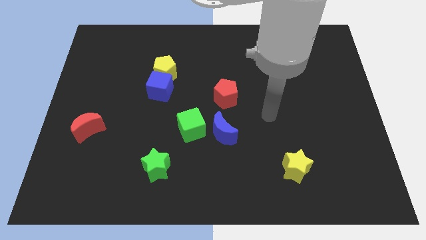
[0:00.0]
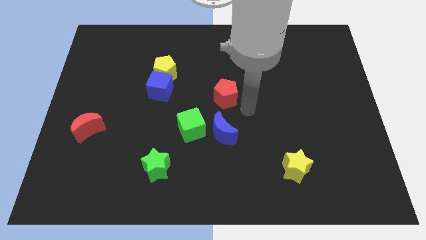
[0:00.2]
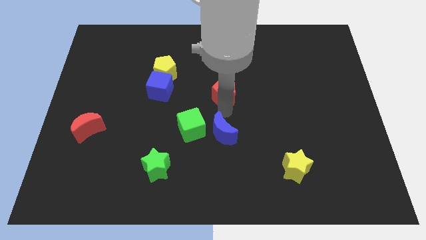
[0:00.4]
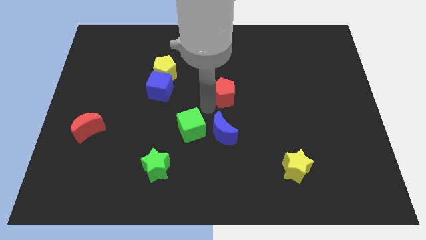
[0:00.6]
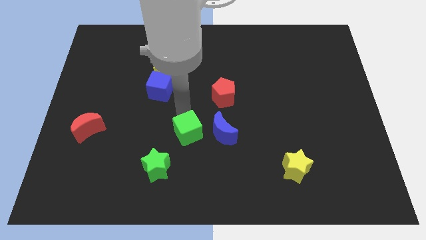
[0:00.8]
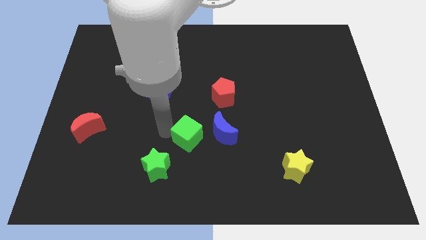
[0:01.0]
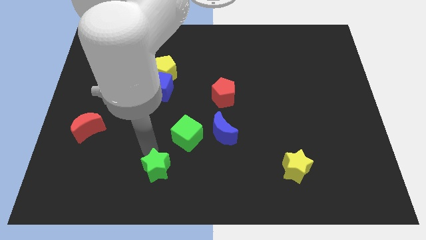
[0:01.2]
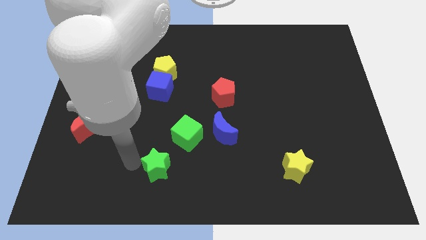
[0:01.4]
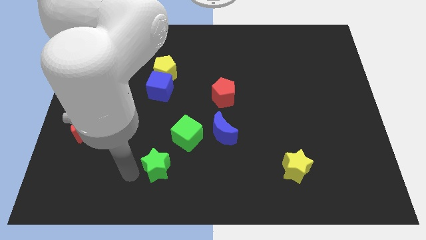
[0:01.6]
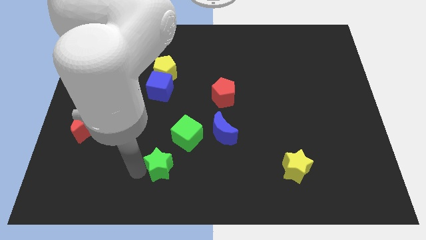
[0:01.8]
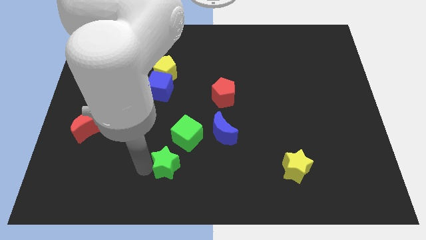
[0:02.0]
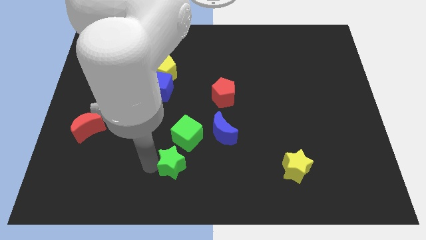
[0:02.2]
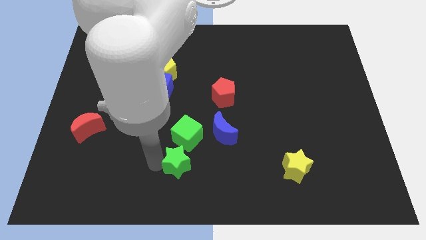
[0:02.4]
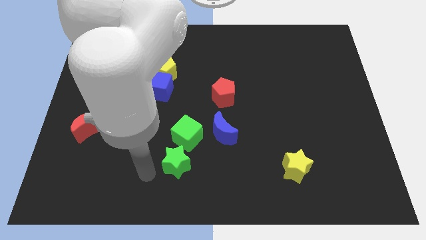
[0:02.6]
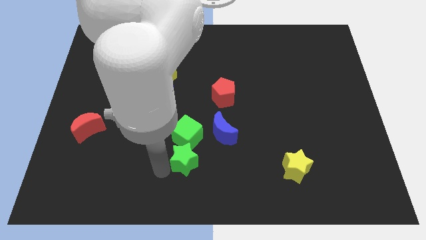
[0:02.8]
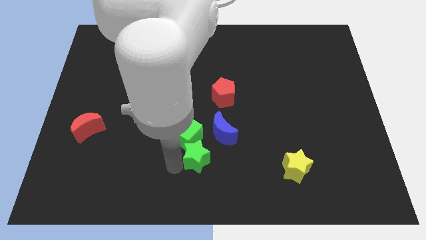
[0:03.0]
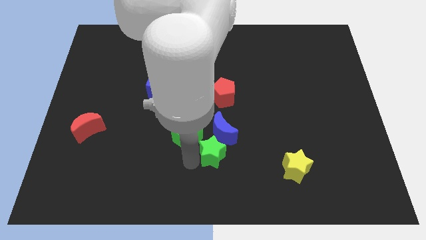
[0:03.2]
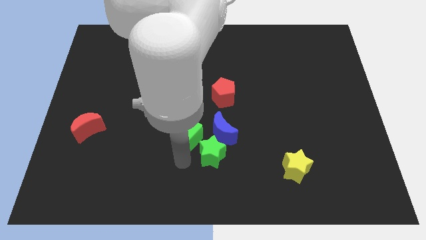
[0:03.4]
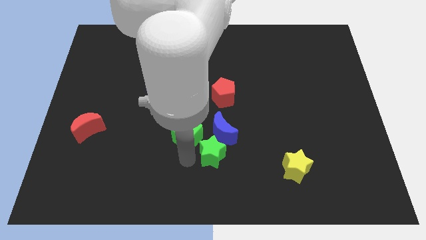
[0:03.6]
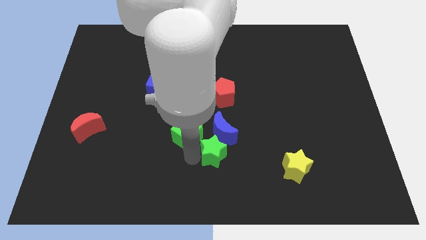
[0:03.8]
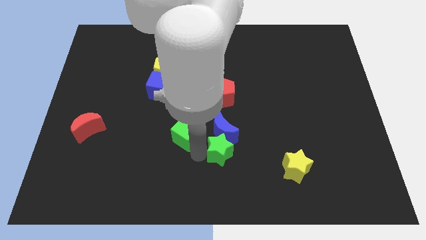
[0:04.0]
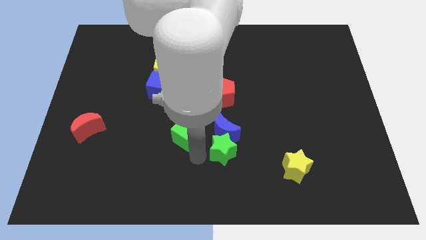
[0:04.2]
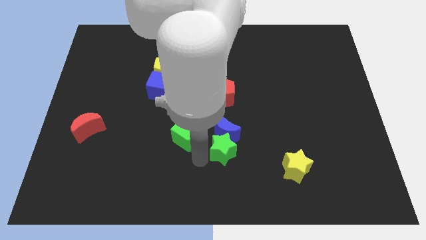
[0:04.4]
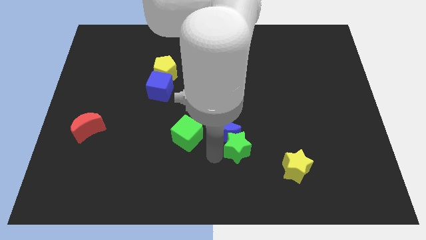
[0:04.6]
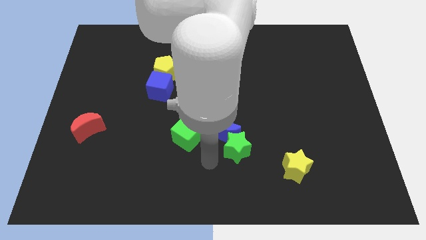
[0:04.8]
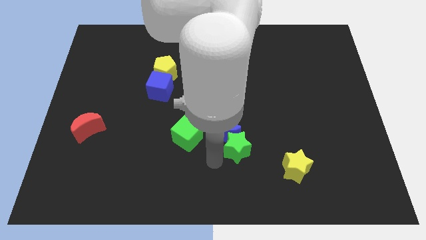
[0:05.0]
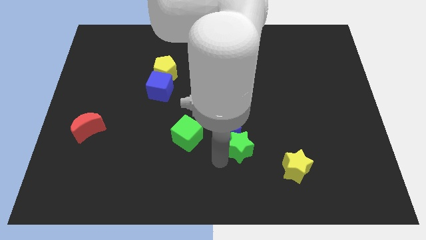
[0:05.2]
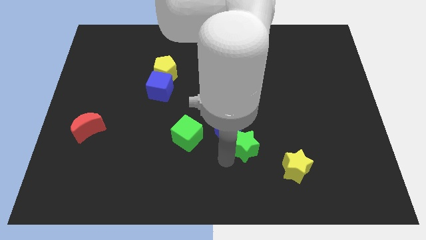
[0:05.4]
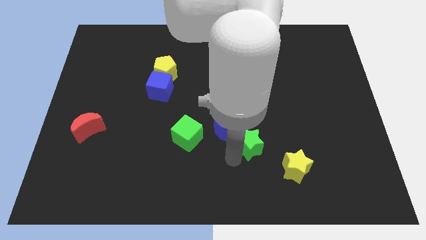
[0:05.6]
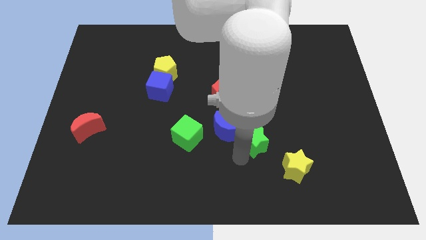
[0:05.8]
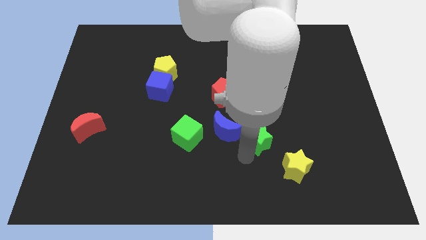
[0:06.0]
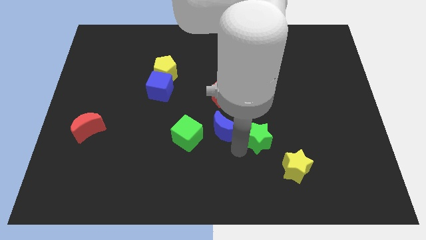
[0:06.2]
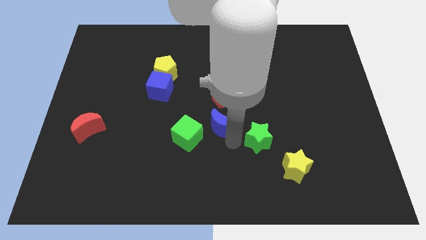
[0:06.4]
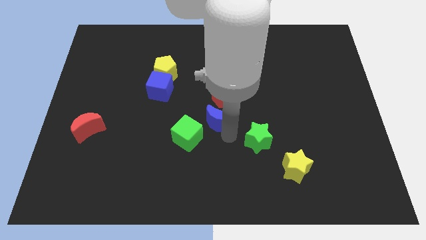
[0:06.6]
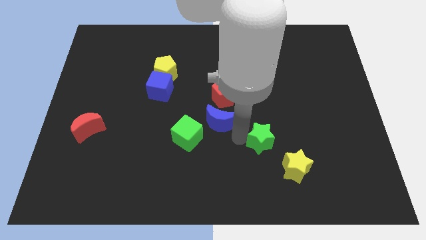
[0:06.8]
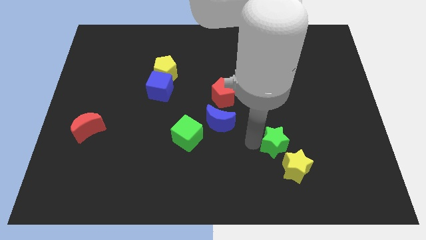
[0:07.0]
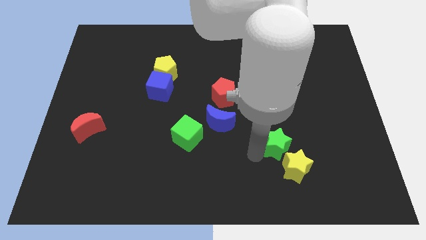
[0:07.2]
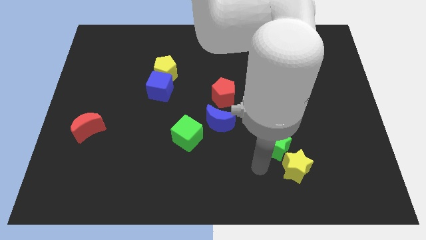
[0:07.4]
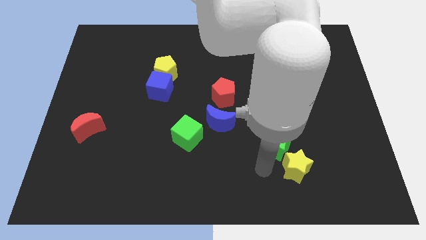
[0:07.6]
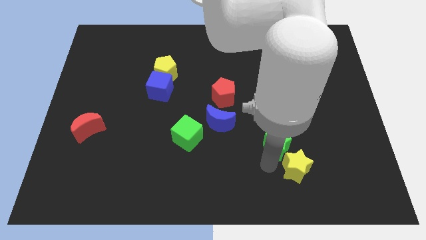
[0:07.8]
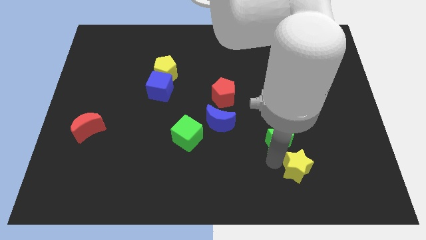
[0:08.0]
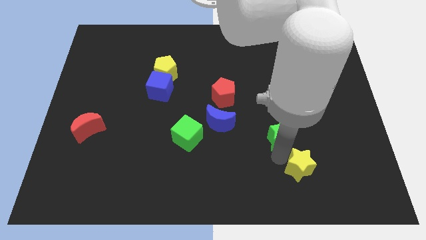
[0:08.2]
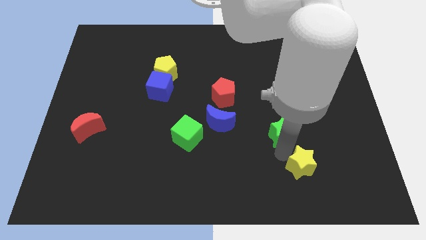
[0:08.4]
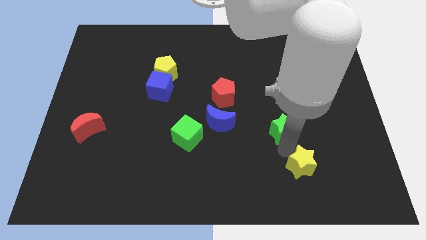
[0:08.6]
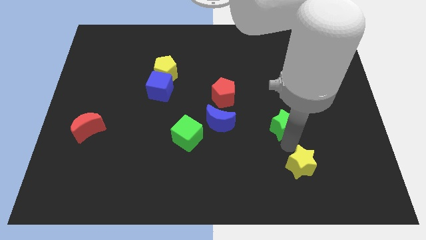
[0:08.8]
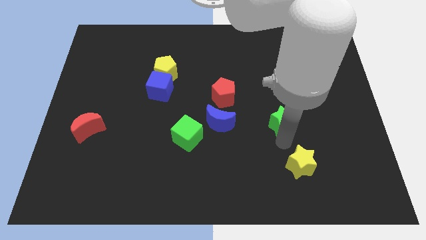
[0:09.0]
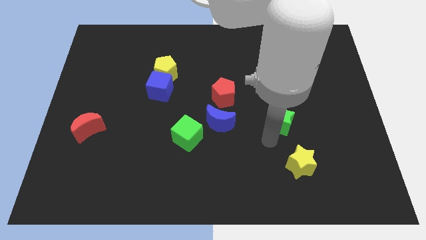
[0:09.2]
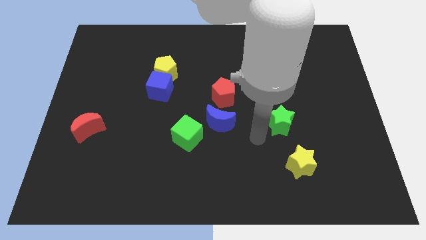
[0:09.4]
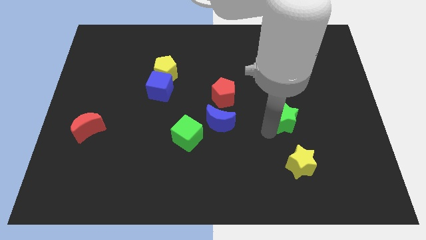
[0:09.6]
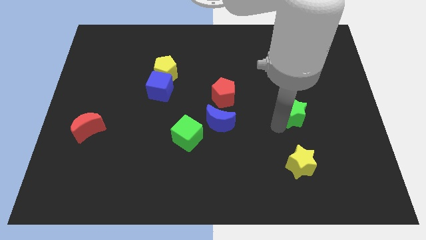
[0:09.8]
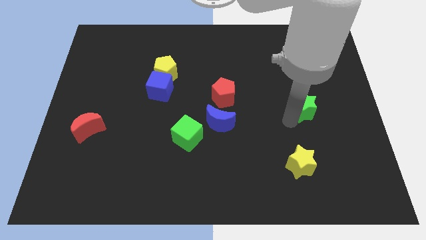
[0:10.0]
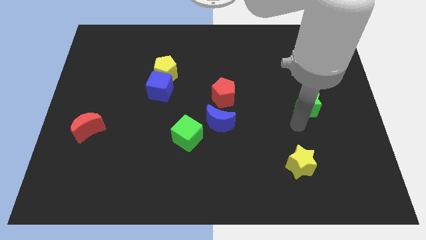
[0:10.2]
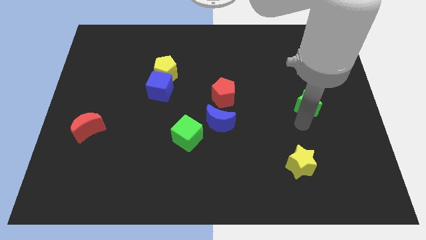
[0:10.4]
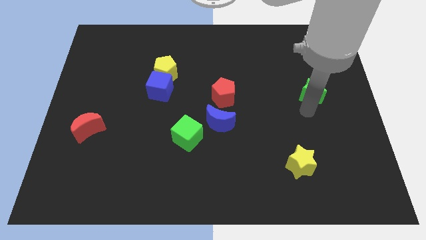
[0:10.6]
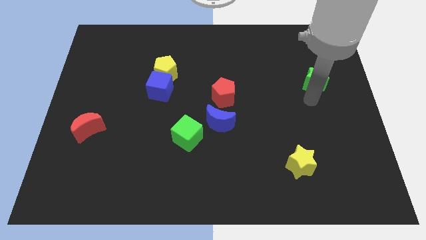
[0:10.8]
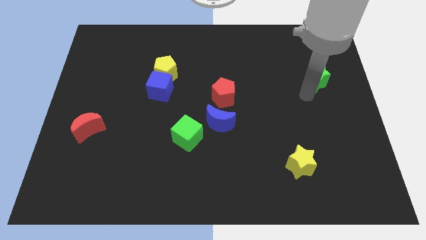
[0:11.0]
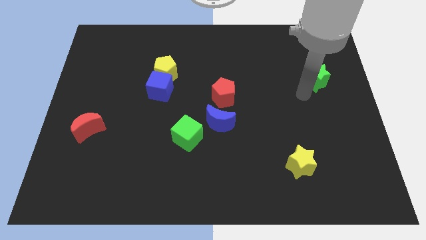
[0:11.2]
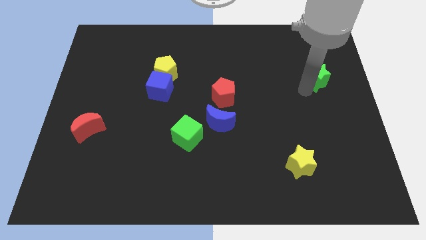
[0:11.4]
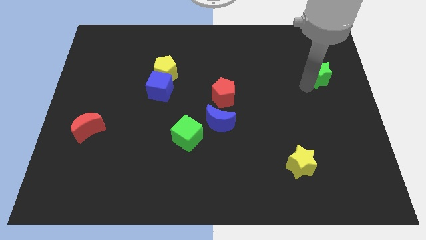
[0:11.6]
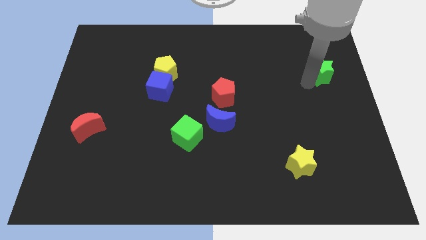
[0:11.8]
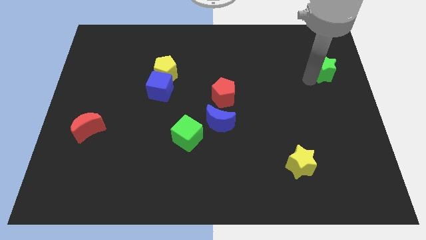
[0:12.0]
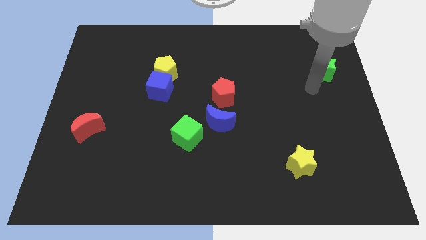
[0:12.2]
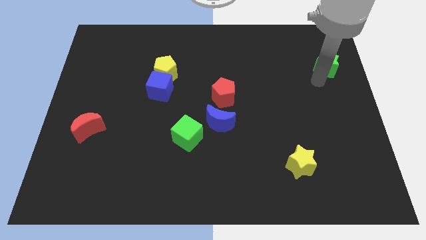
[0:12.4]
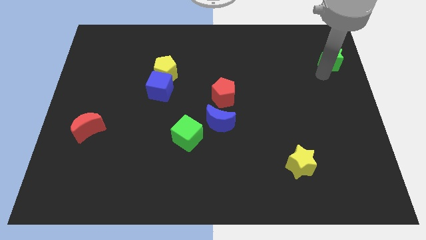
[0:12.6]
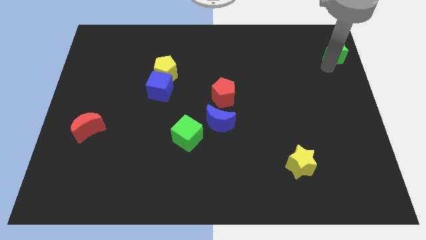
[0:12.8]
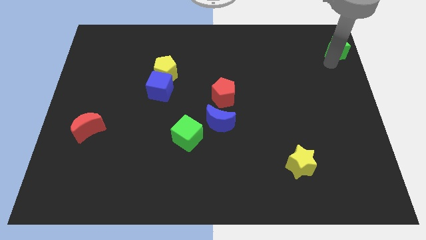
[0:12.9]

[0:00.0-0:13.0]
slide the green star to the top right
